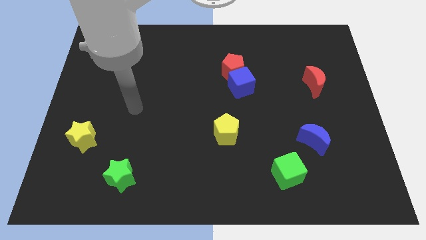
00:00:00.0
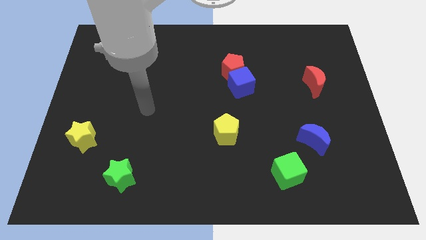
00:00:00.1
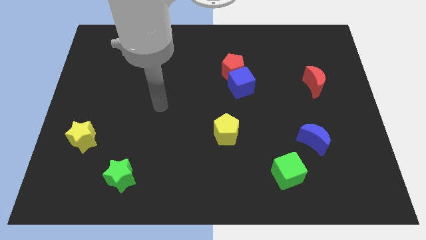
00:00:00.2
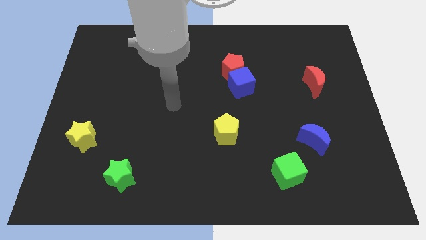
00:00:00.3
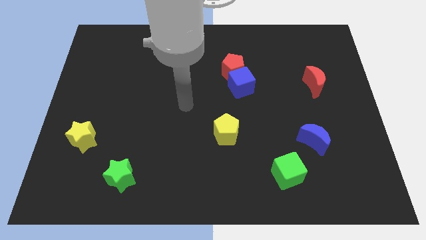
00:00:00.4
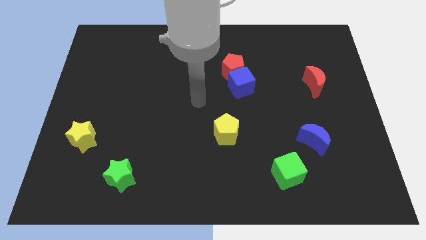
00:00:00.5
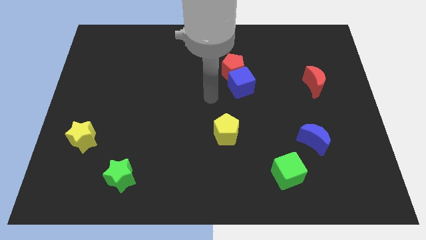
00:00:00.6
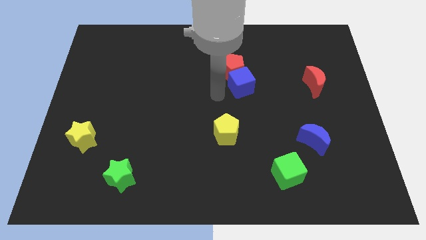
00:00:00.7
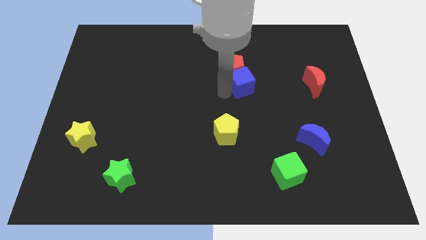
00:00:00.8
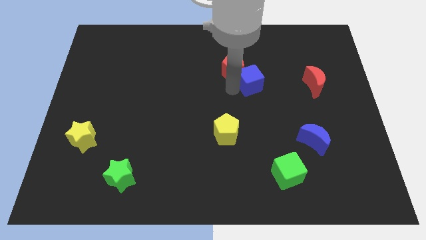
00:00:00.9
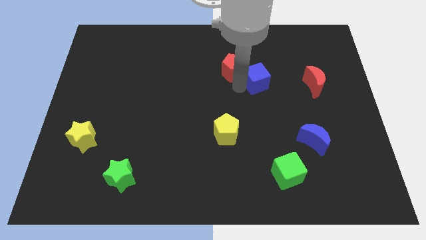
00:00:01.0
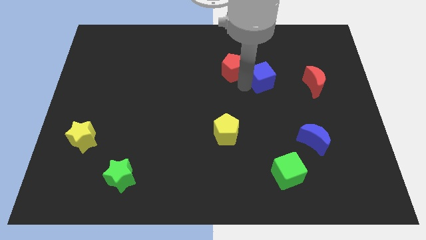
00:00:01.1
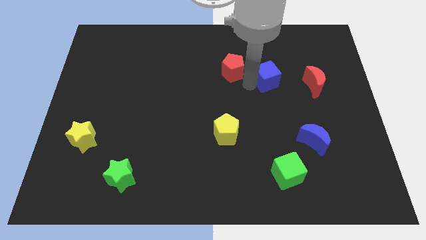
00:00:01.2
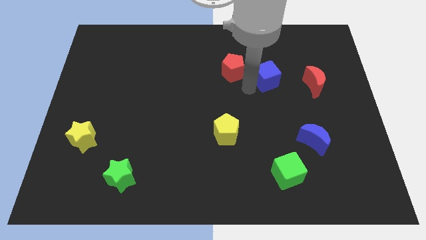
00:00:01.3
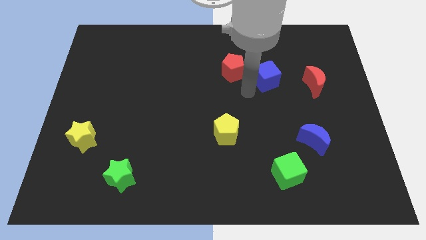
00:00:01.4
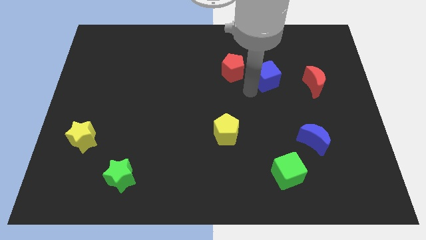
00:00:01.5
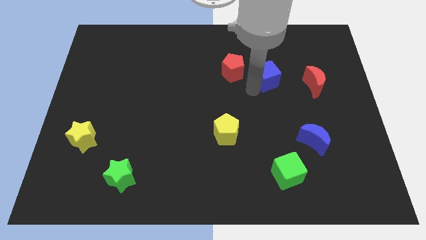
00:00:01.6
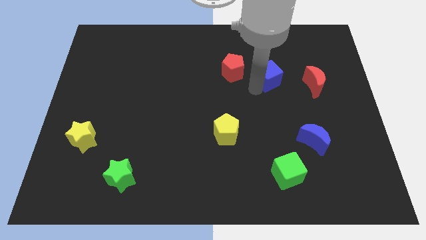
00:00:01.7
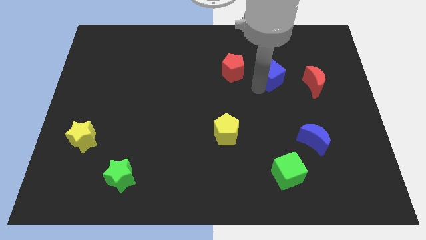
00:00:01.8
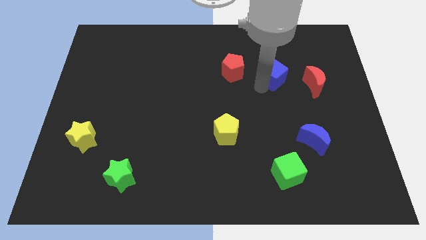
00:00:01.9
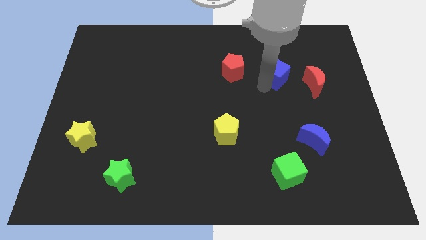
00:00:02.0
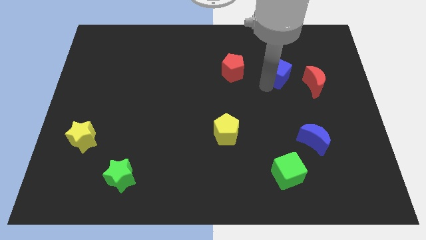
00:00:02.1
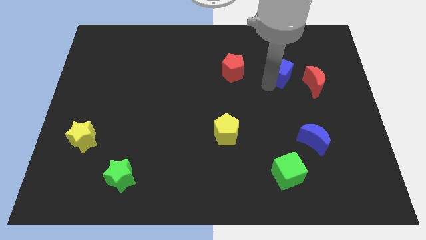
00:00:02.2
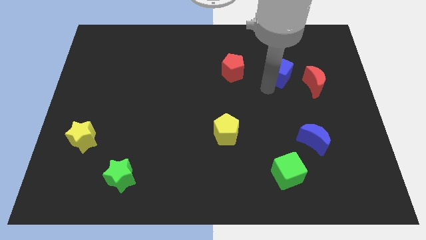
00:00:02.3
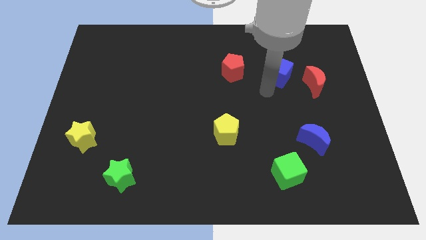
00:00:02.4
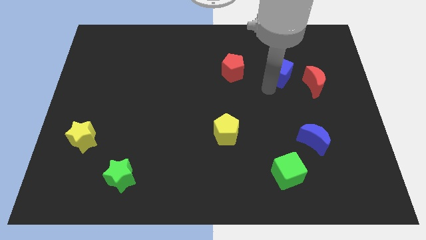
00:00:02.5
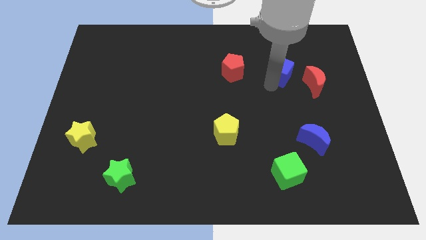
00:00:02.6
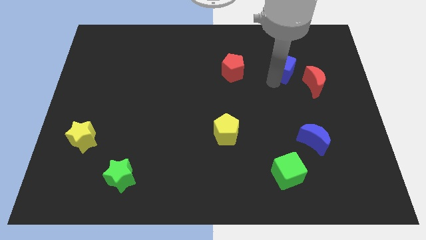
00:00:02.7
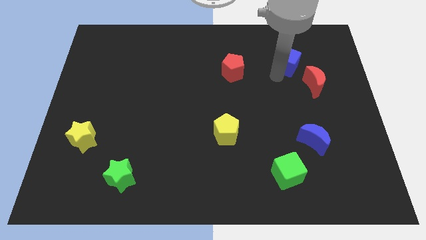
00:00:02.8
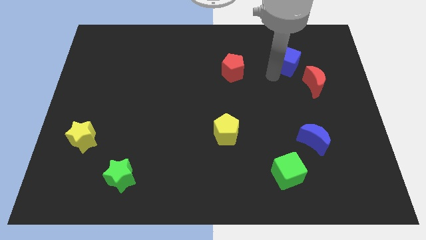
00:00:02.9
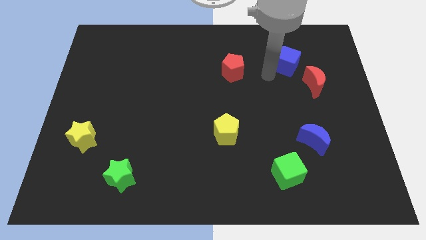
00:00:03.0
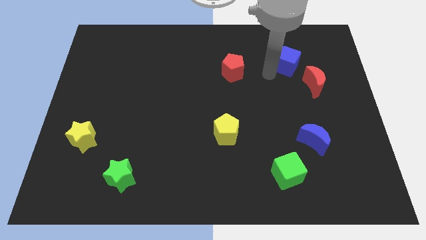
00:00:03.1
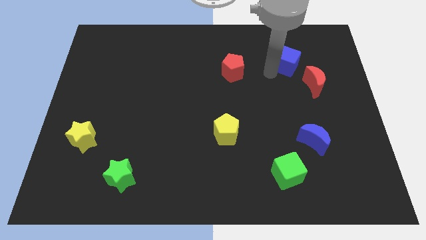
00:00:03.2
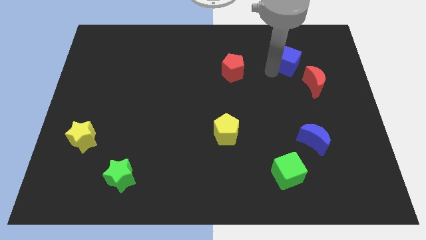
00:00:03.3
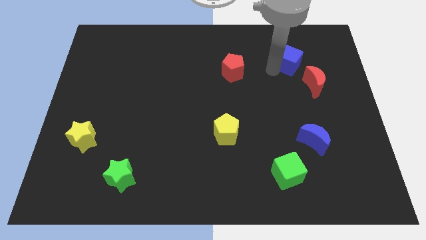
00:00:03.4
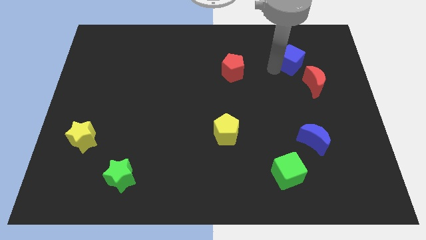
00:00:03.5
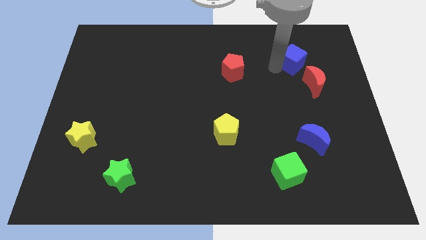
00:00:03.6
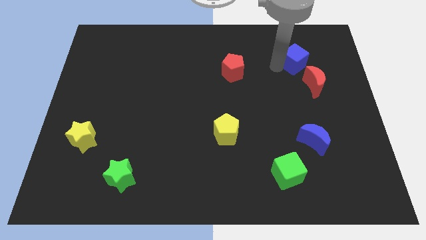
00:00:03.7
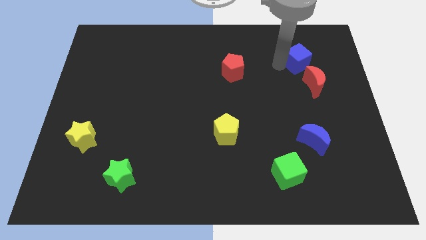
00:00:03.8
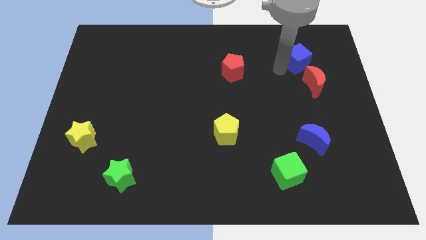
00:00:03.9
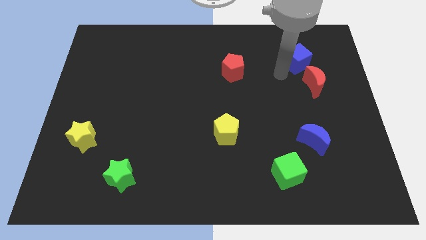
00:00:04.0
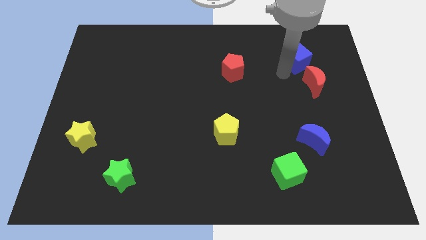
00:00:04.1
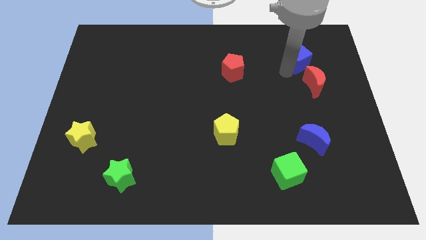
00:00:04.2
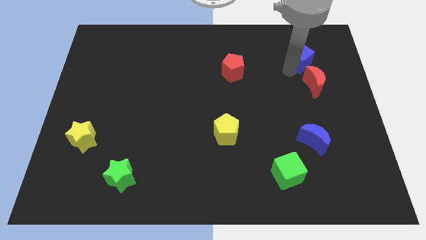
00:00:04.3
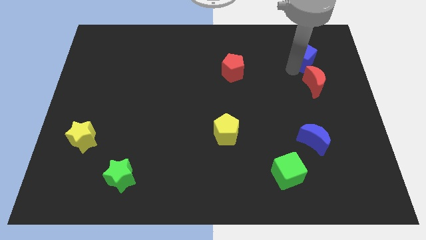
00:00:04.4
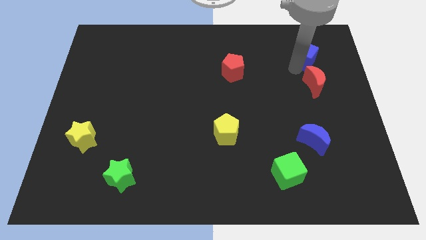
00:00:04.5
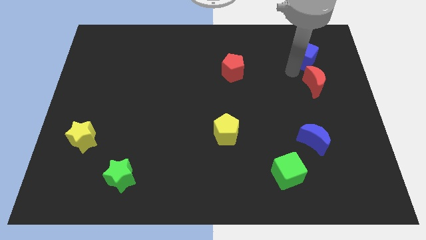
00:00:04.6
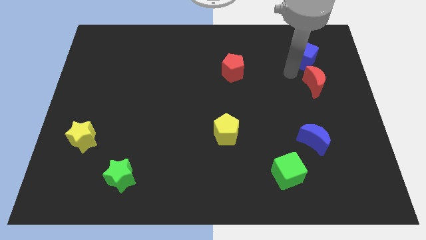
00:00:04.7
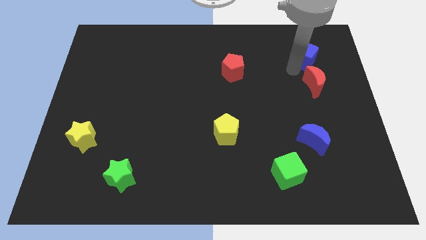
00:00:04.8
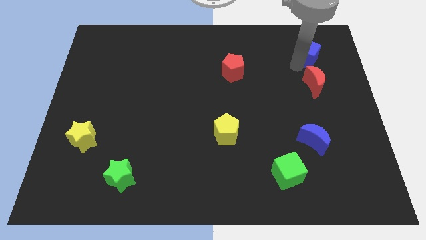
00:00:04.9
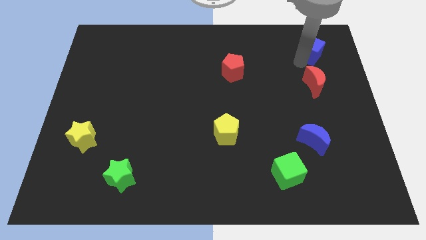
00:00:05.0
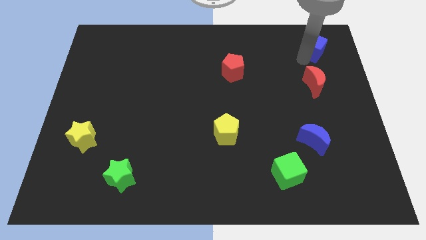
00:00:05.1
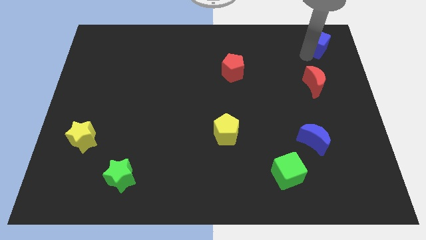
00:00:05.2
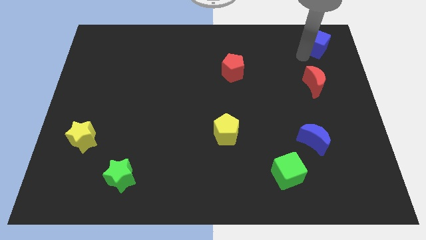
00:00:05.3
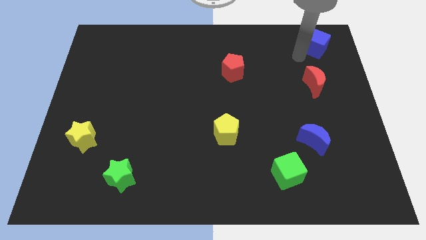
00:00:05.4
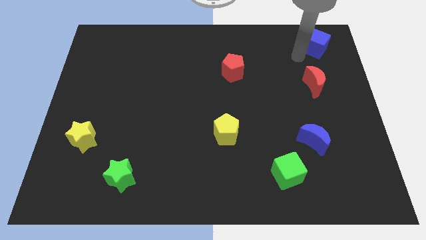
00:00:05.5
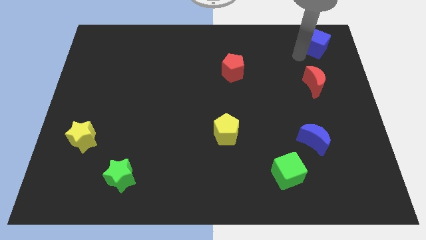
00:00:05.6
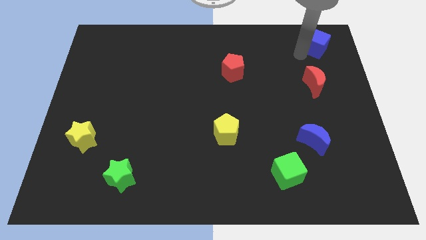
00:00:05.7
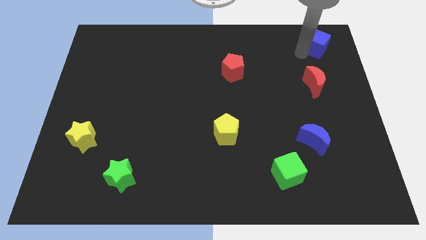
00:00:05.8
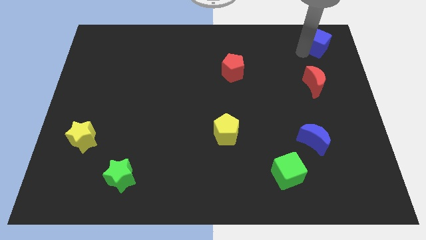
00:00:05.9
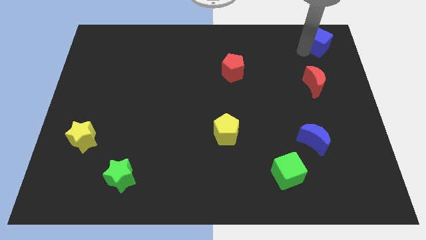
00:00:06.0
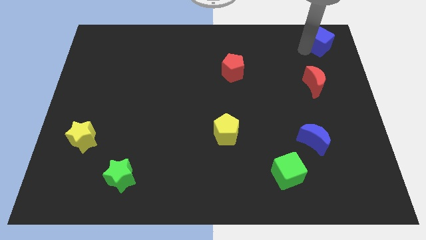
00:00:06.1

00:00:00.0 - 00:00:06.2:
push the blue cube to the top right of the board
